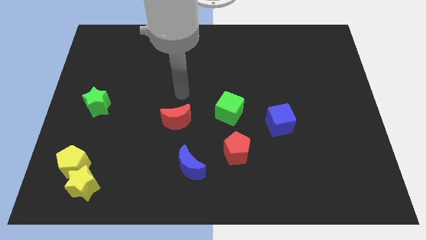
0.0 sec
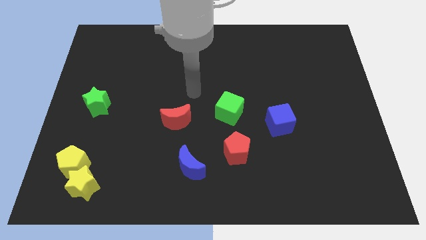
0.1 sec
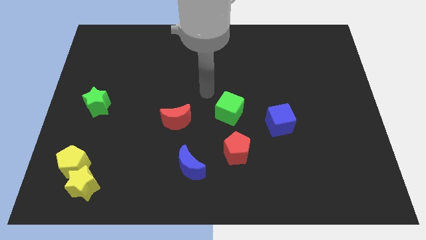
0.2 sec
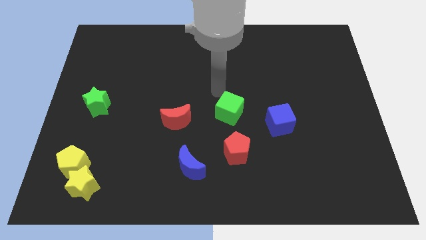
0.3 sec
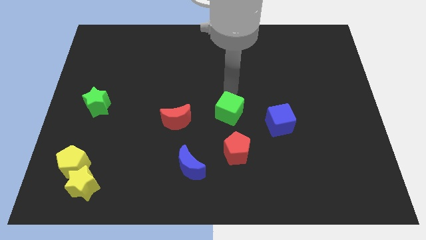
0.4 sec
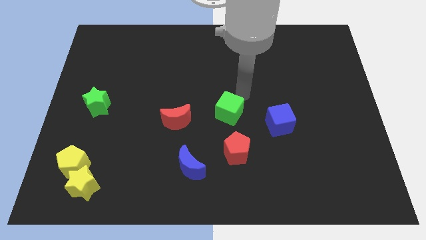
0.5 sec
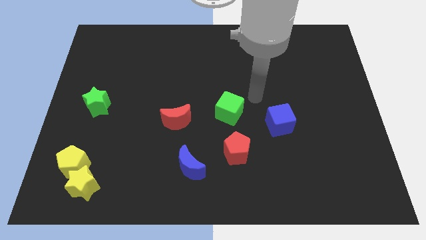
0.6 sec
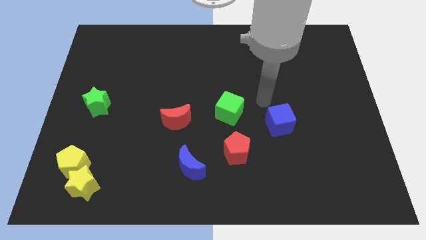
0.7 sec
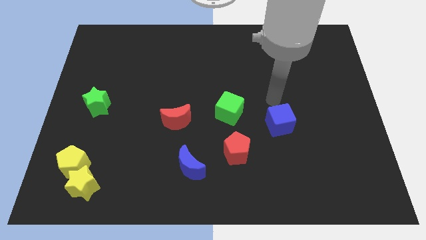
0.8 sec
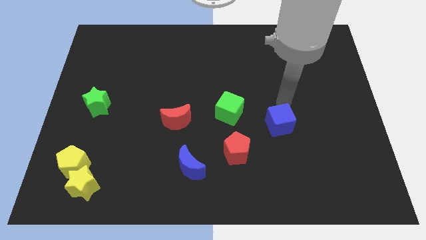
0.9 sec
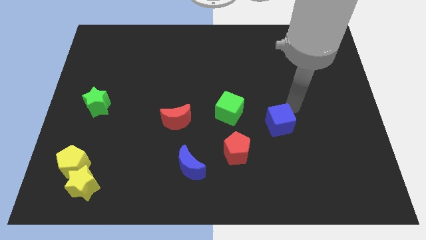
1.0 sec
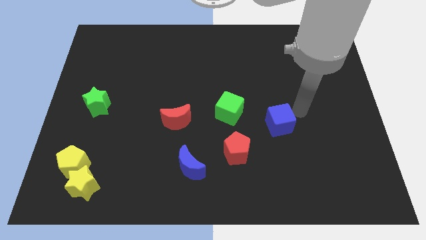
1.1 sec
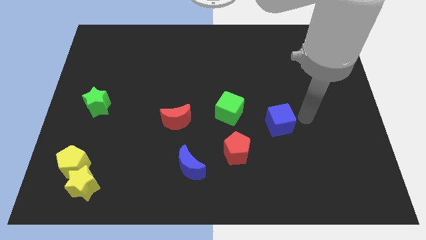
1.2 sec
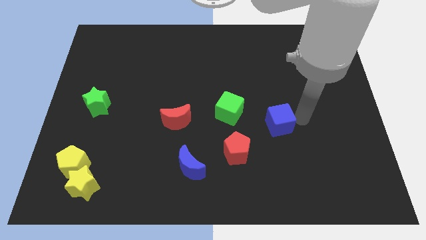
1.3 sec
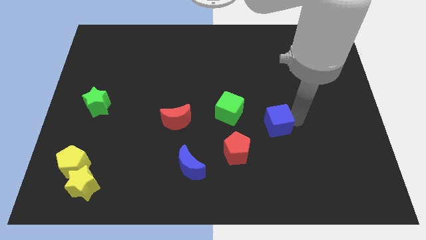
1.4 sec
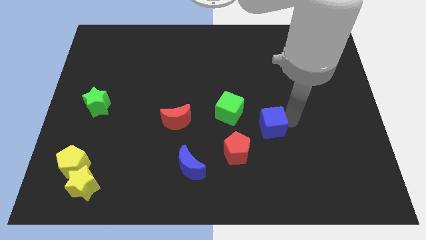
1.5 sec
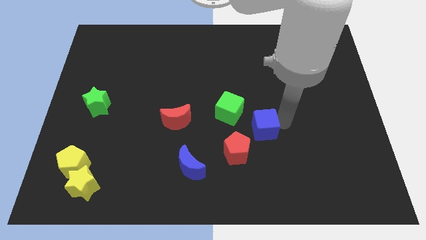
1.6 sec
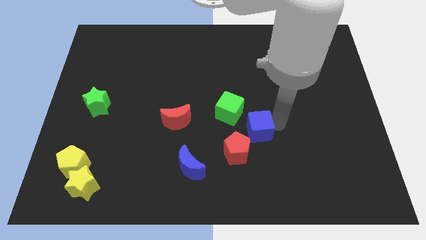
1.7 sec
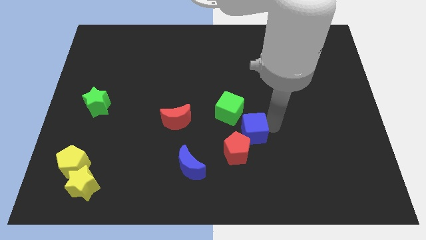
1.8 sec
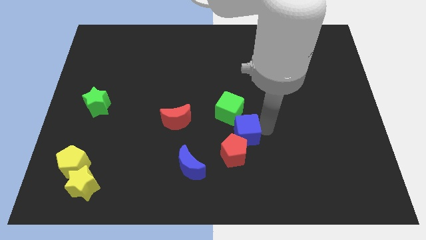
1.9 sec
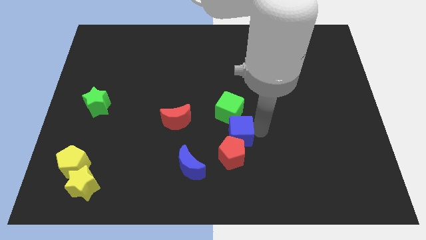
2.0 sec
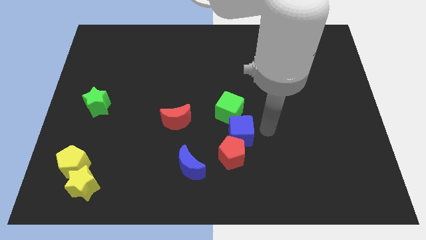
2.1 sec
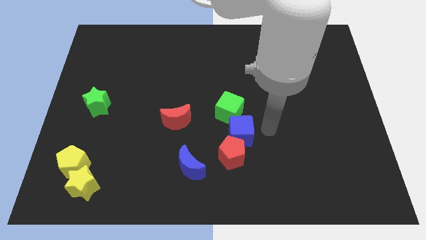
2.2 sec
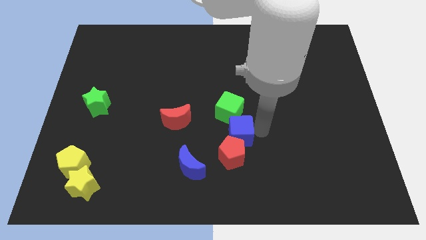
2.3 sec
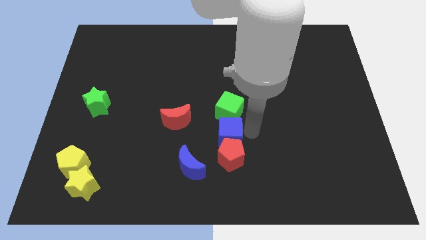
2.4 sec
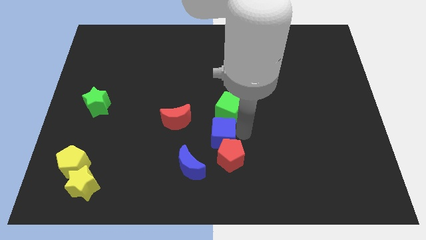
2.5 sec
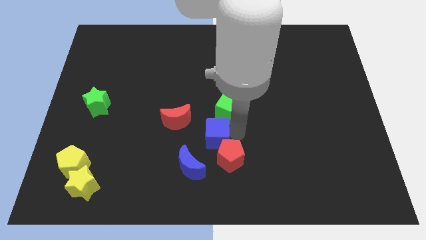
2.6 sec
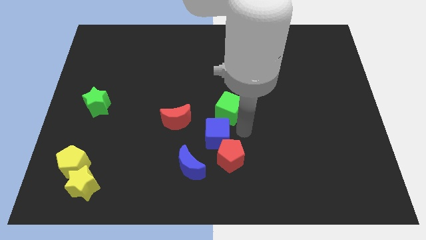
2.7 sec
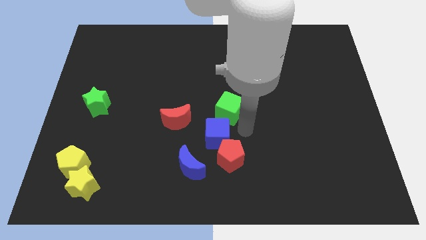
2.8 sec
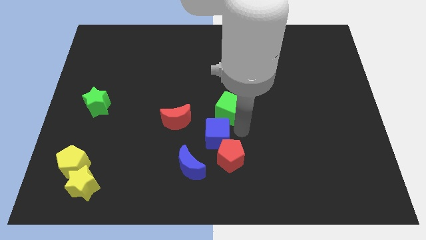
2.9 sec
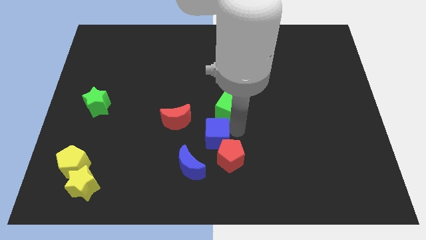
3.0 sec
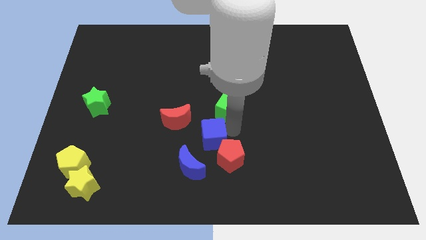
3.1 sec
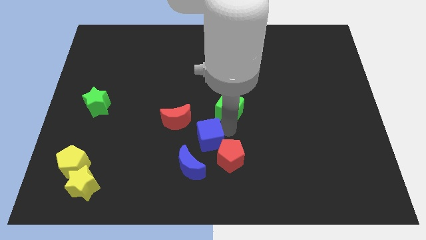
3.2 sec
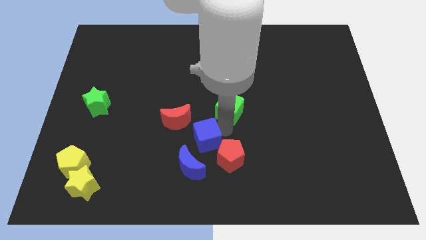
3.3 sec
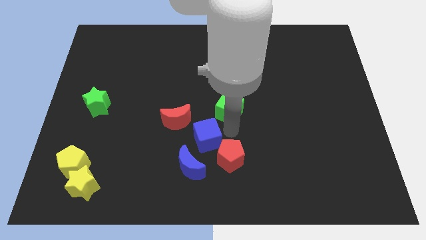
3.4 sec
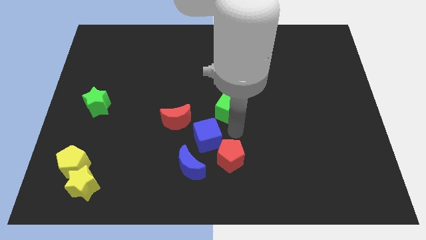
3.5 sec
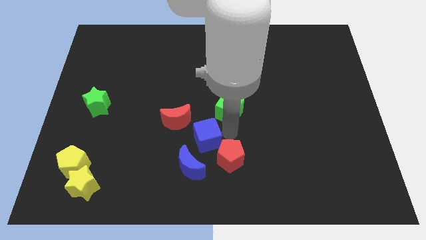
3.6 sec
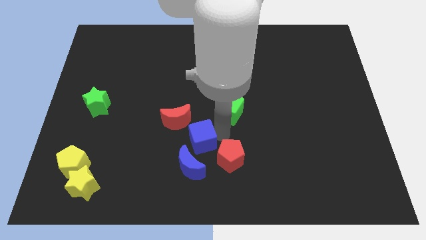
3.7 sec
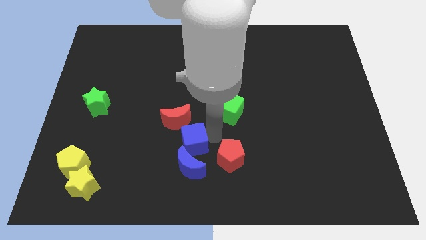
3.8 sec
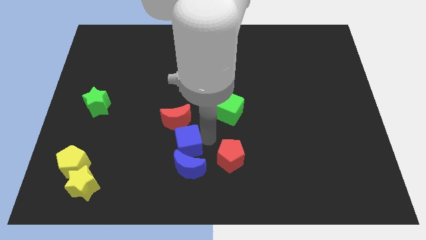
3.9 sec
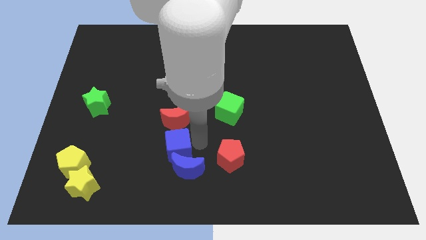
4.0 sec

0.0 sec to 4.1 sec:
slide the blue cube to the left

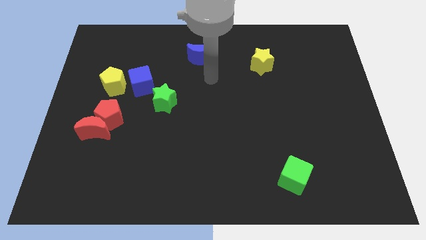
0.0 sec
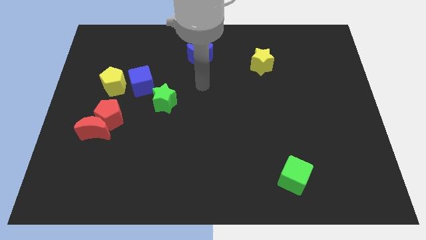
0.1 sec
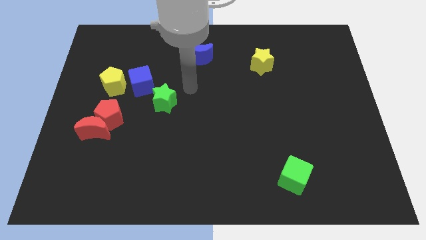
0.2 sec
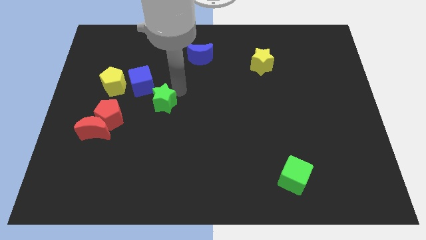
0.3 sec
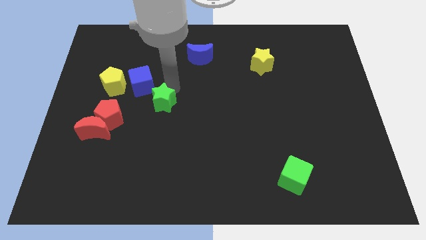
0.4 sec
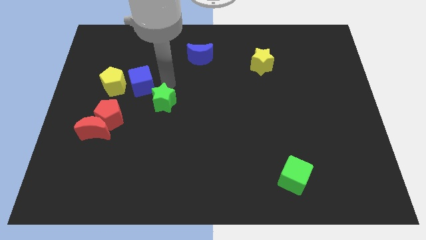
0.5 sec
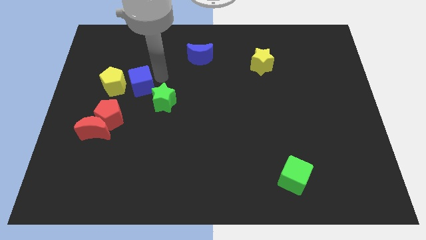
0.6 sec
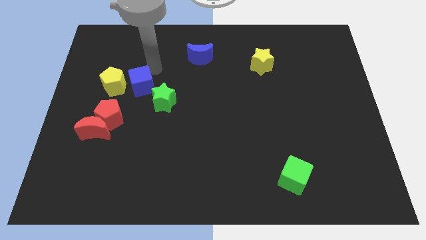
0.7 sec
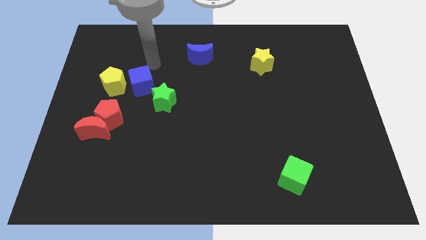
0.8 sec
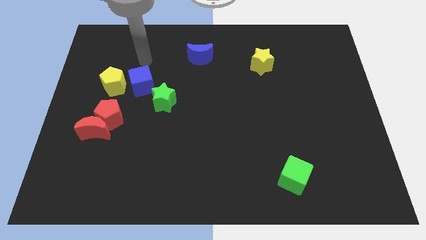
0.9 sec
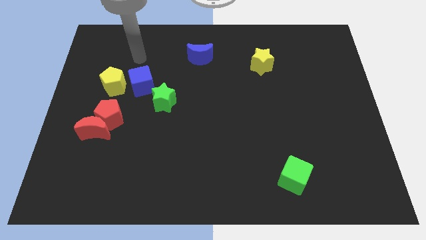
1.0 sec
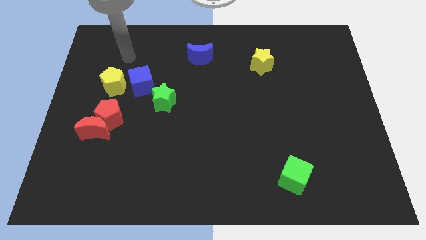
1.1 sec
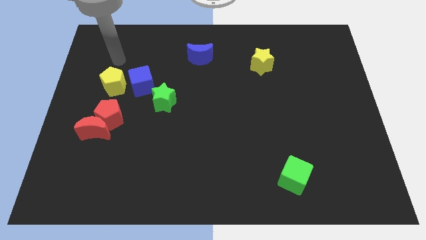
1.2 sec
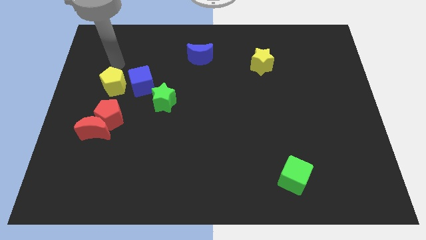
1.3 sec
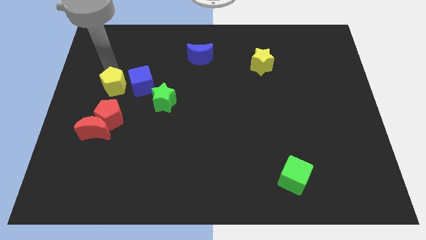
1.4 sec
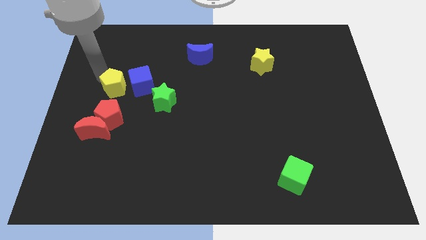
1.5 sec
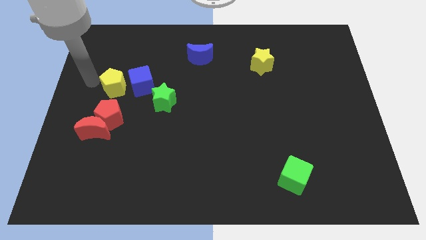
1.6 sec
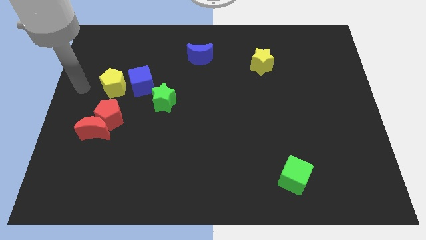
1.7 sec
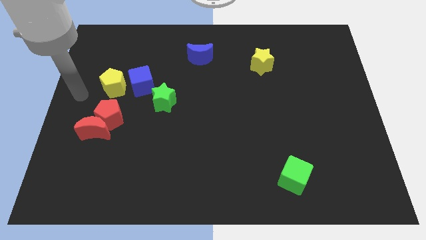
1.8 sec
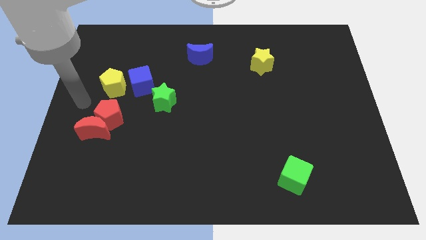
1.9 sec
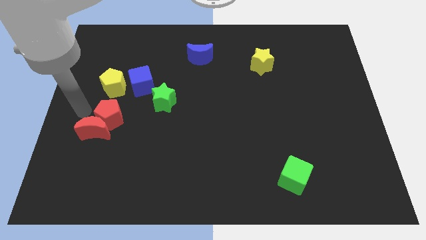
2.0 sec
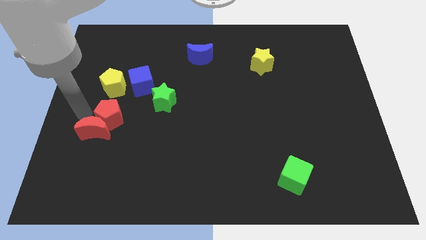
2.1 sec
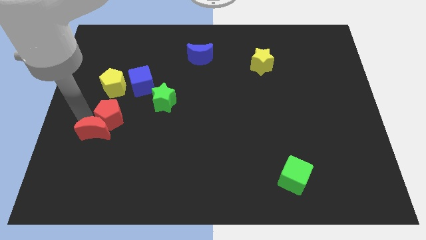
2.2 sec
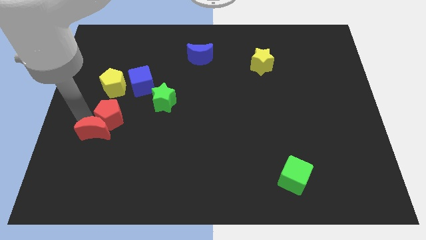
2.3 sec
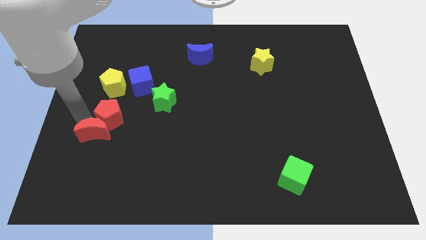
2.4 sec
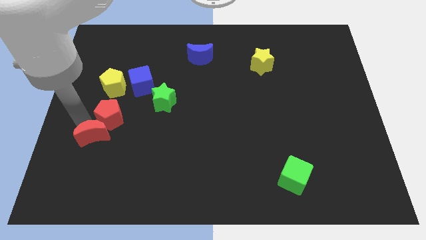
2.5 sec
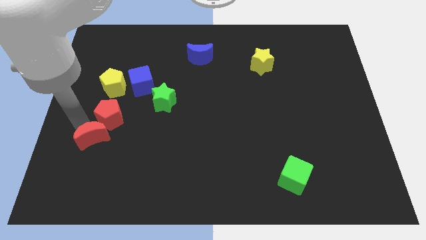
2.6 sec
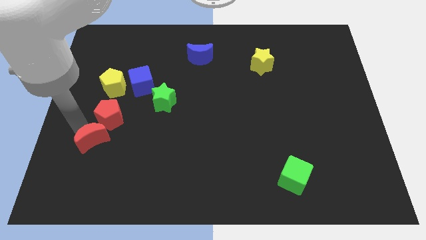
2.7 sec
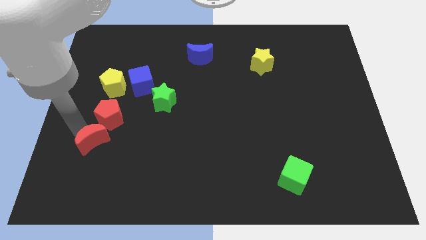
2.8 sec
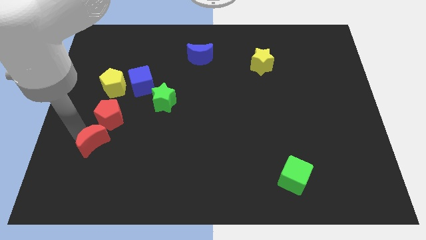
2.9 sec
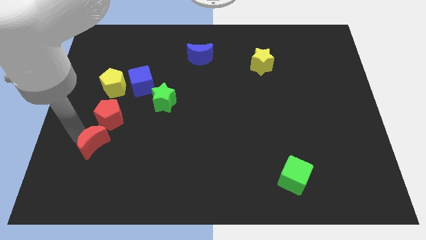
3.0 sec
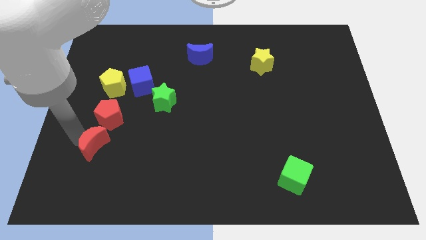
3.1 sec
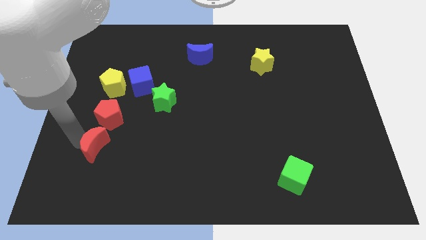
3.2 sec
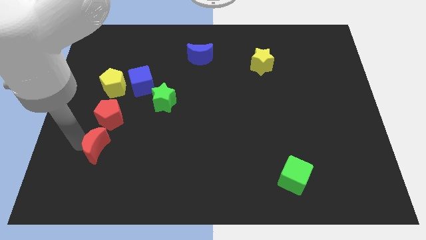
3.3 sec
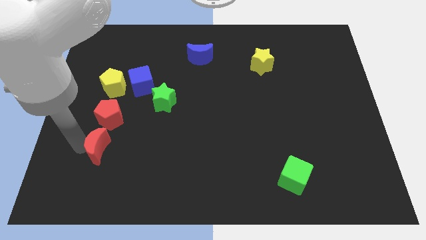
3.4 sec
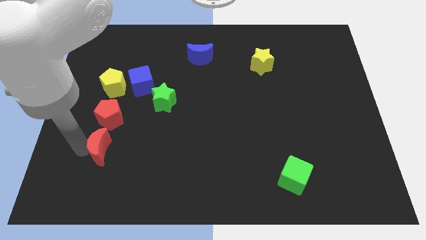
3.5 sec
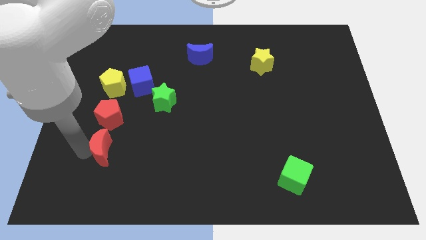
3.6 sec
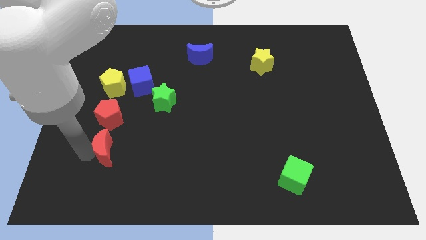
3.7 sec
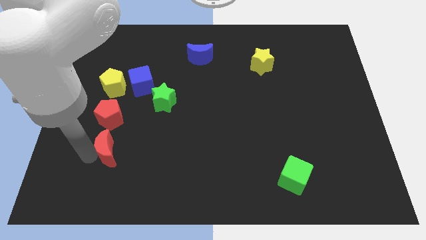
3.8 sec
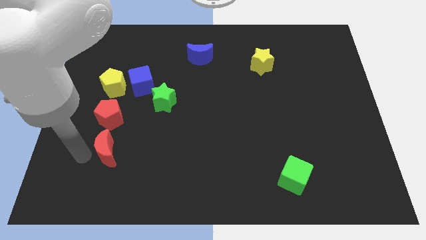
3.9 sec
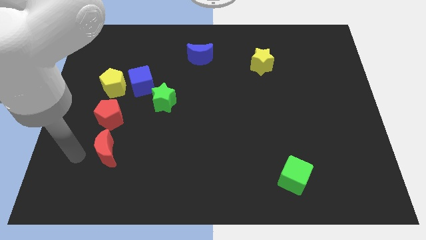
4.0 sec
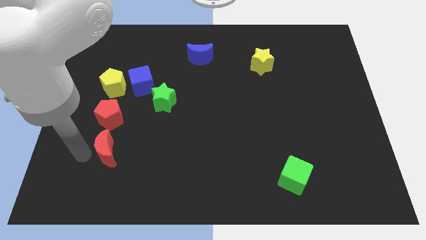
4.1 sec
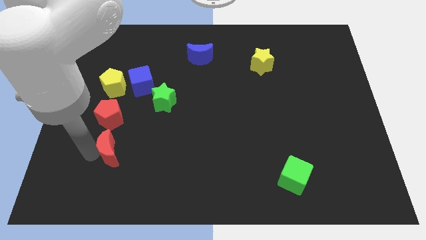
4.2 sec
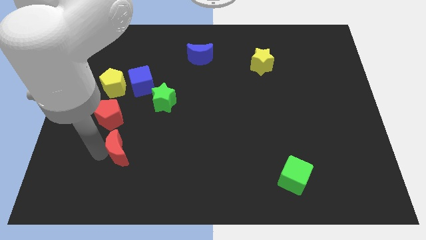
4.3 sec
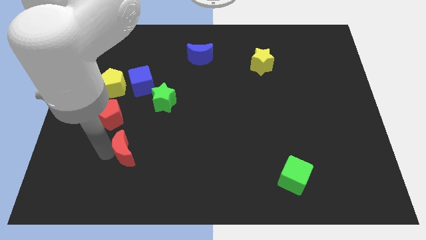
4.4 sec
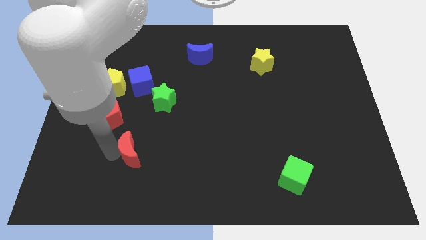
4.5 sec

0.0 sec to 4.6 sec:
slightly push the red moon to the right
